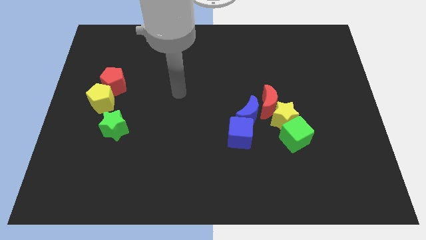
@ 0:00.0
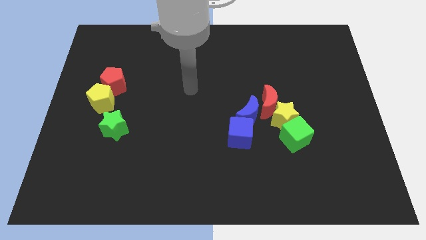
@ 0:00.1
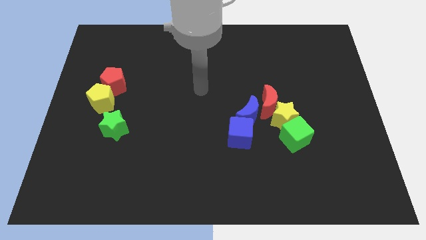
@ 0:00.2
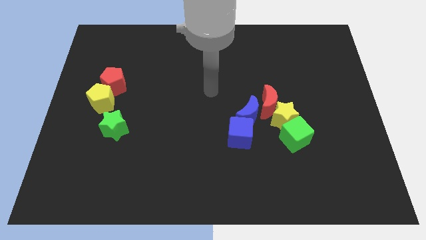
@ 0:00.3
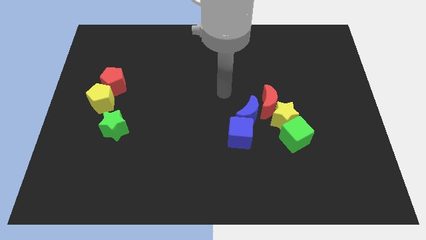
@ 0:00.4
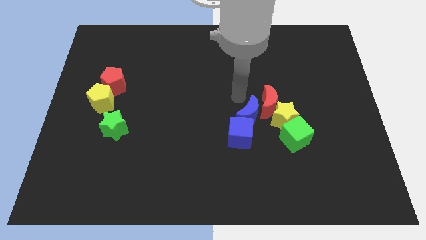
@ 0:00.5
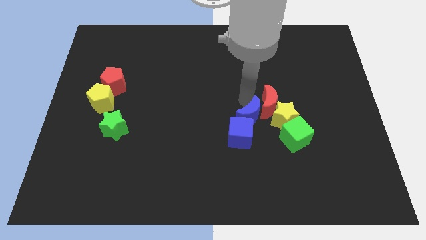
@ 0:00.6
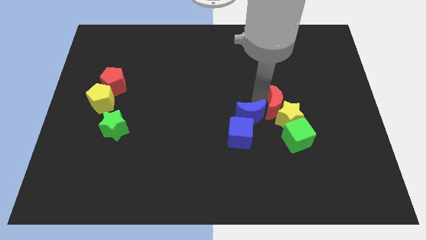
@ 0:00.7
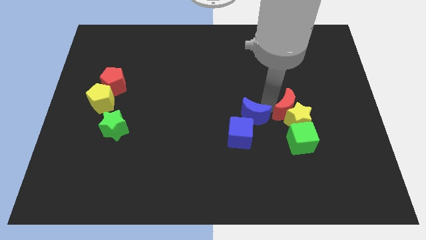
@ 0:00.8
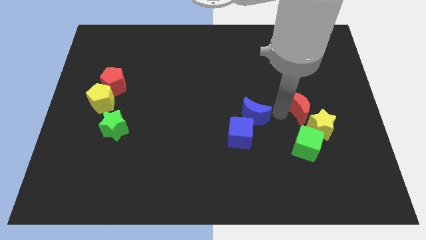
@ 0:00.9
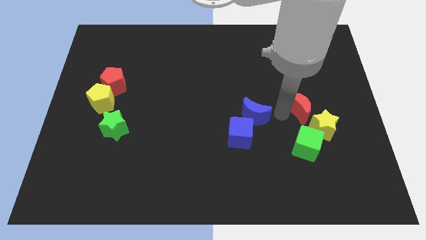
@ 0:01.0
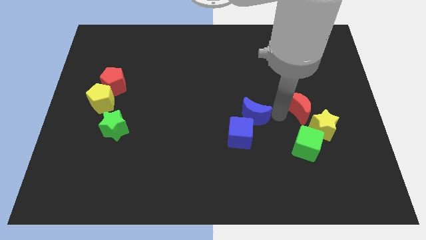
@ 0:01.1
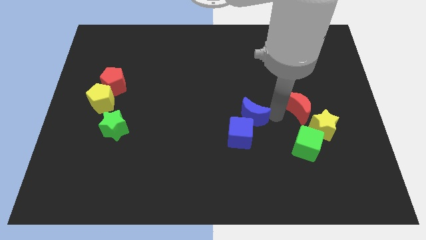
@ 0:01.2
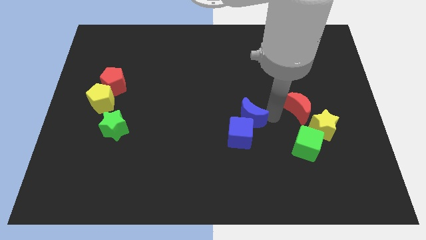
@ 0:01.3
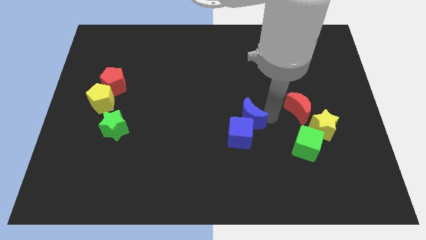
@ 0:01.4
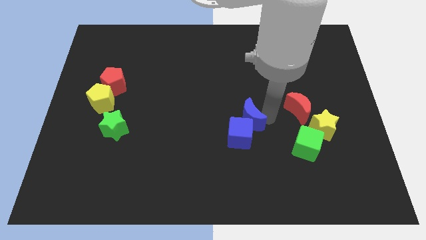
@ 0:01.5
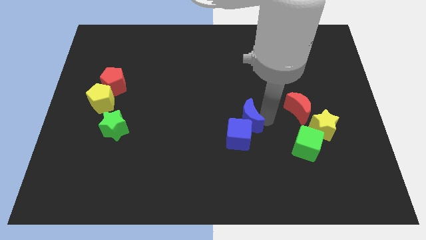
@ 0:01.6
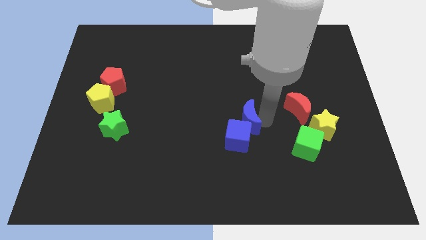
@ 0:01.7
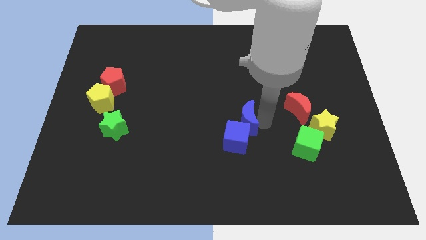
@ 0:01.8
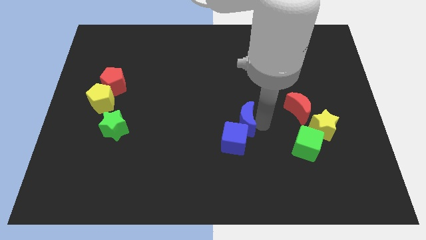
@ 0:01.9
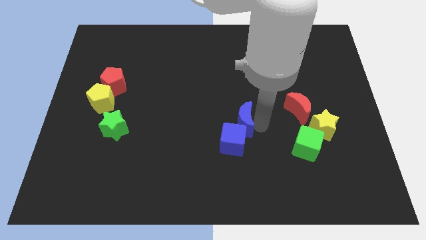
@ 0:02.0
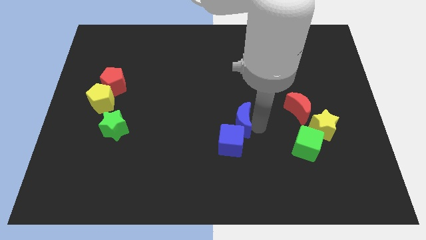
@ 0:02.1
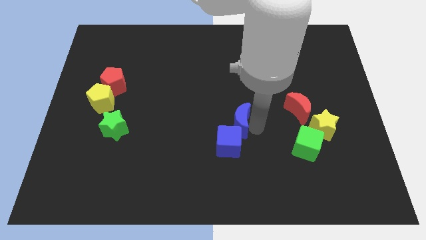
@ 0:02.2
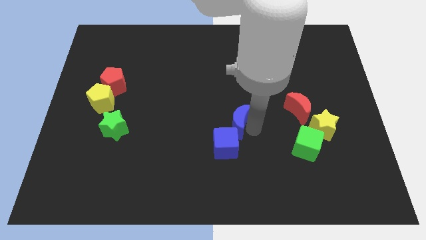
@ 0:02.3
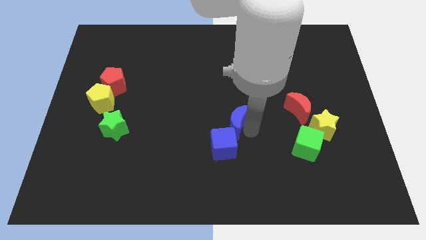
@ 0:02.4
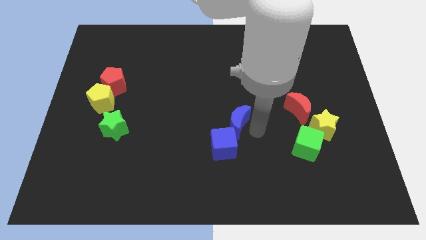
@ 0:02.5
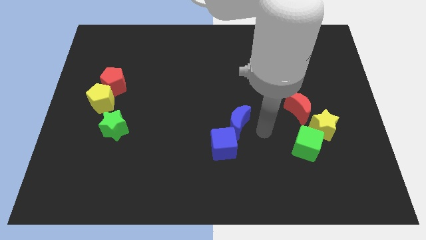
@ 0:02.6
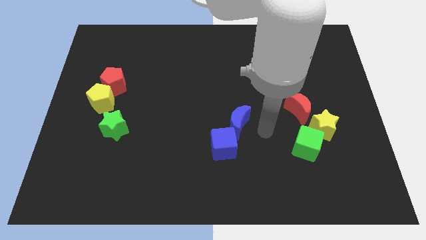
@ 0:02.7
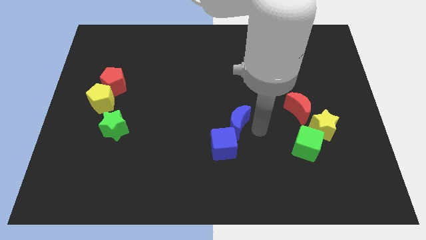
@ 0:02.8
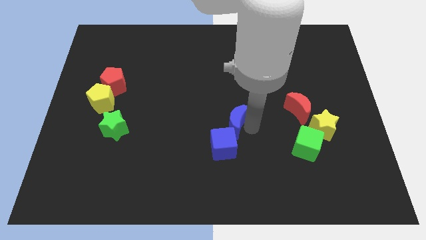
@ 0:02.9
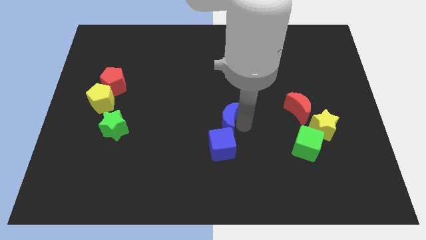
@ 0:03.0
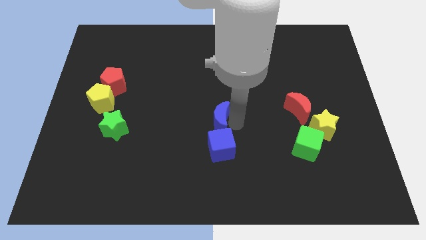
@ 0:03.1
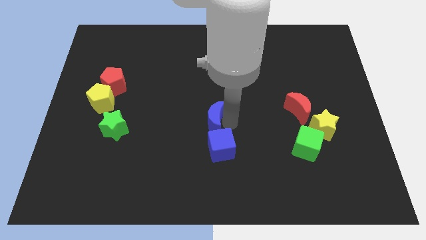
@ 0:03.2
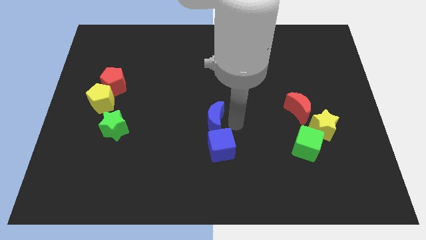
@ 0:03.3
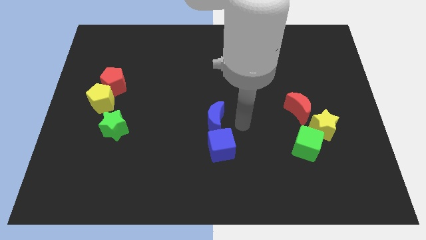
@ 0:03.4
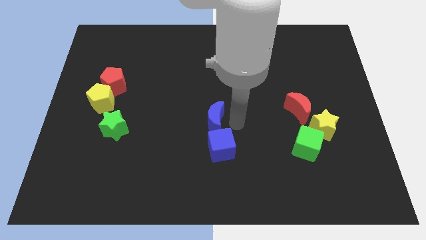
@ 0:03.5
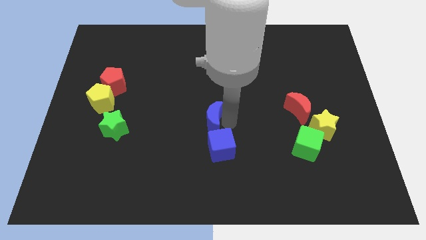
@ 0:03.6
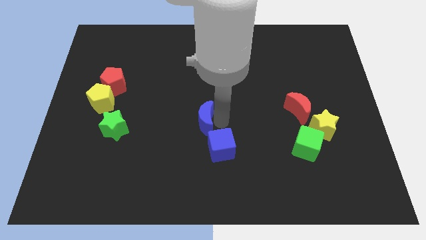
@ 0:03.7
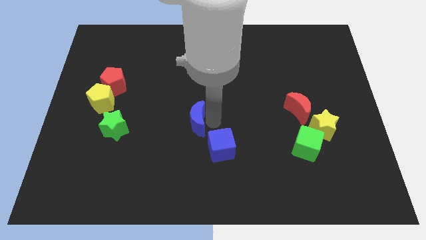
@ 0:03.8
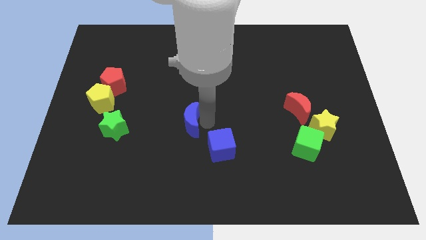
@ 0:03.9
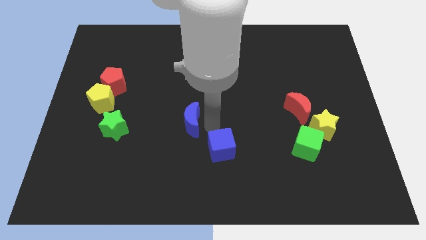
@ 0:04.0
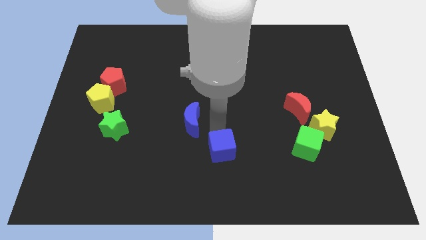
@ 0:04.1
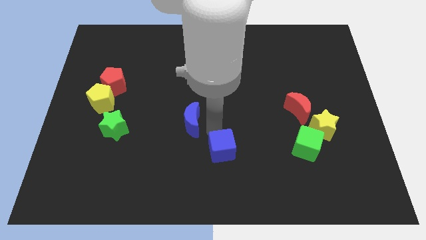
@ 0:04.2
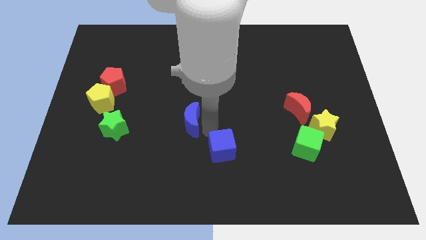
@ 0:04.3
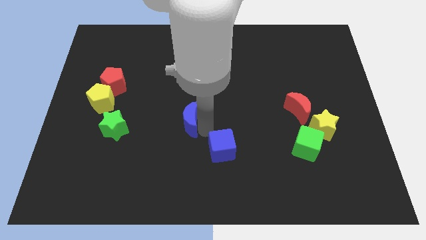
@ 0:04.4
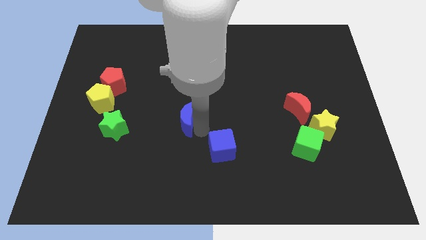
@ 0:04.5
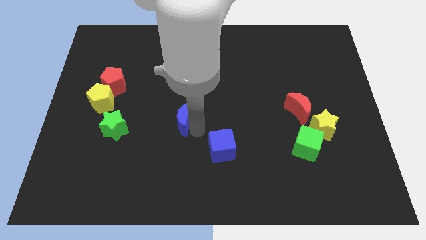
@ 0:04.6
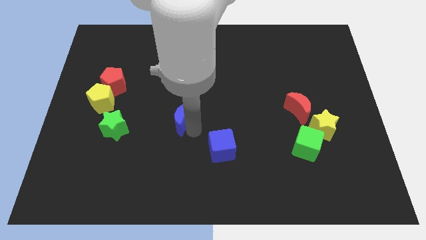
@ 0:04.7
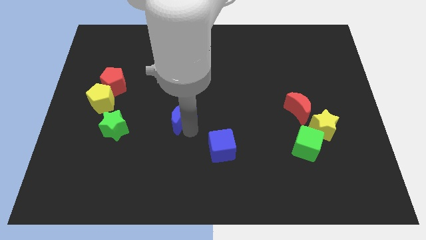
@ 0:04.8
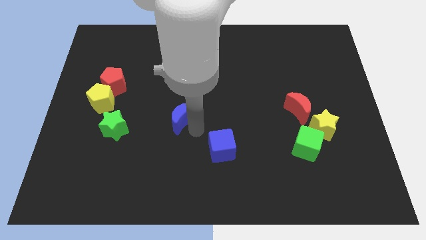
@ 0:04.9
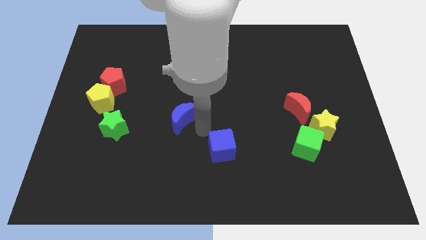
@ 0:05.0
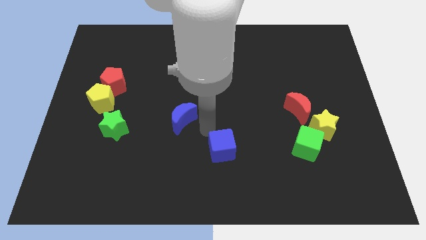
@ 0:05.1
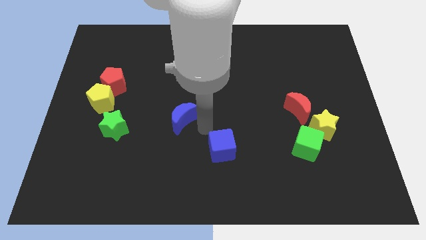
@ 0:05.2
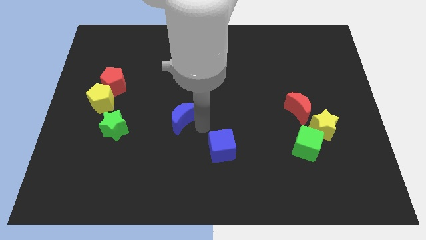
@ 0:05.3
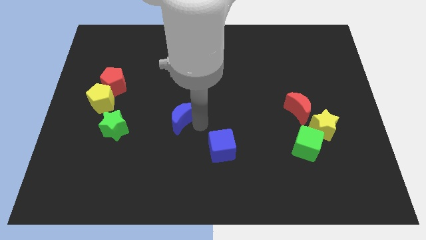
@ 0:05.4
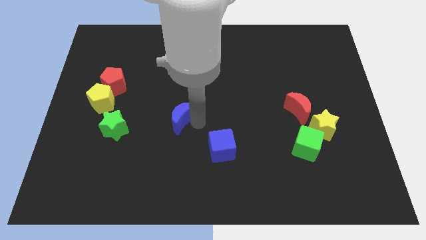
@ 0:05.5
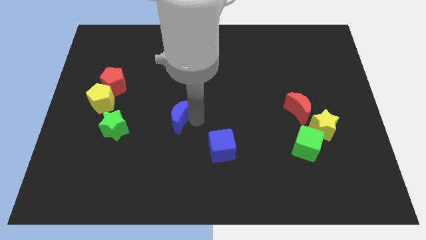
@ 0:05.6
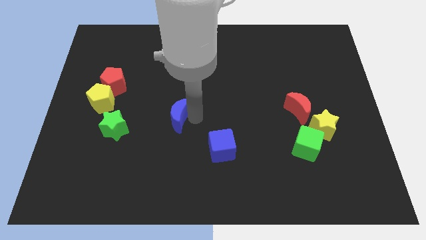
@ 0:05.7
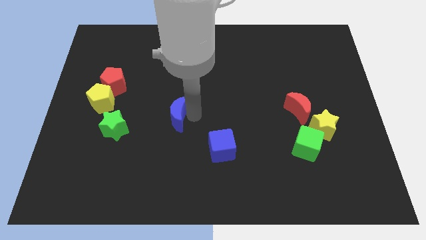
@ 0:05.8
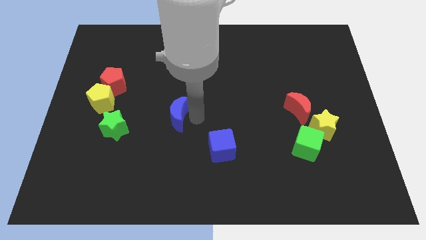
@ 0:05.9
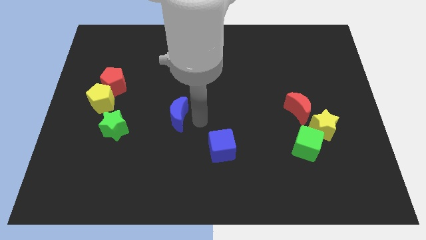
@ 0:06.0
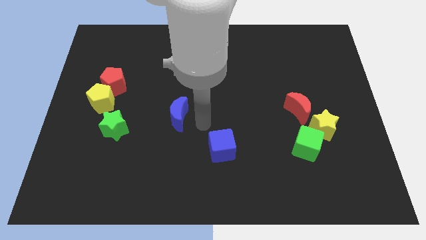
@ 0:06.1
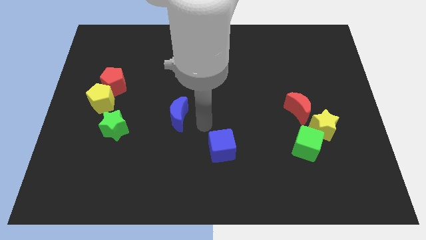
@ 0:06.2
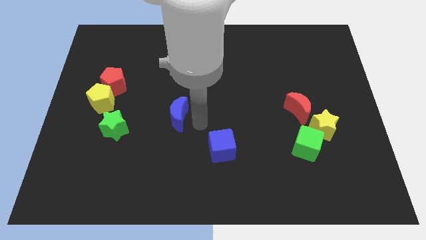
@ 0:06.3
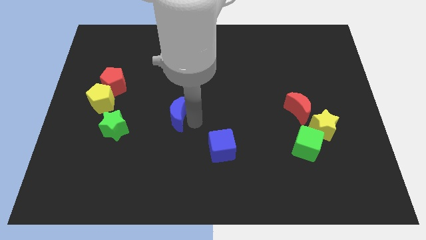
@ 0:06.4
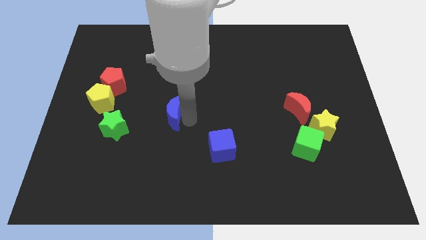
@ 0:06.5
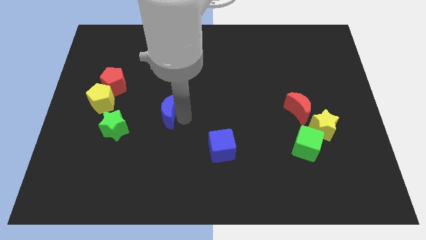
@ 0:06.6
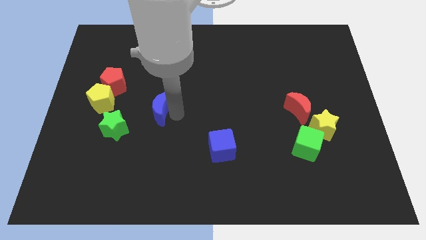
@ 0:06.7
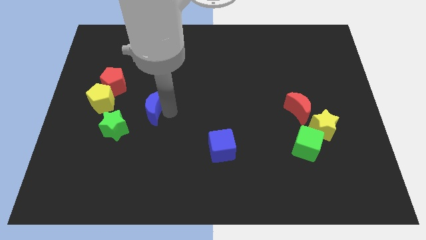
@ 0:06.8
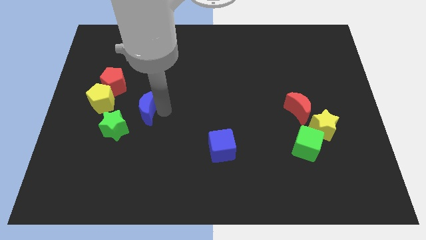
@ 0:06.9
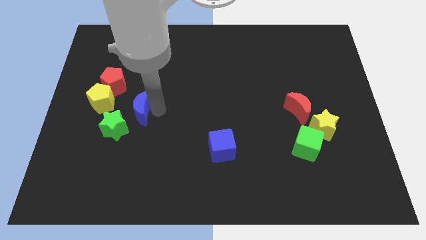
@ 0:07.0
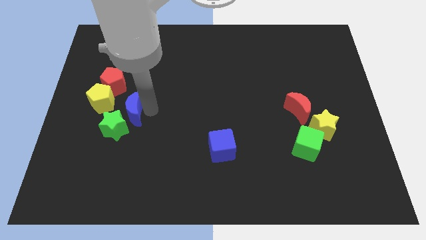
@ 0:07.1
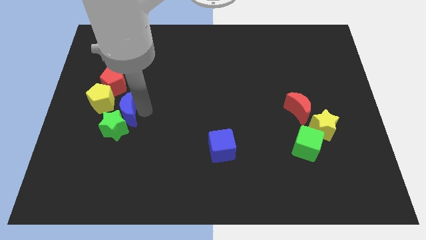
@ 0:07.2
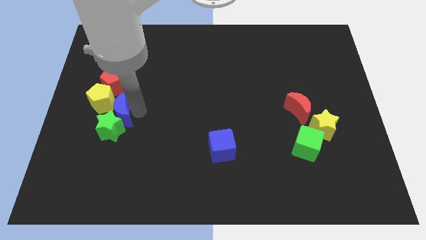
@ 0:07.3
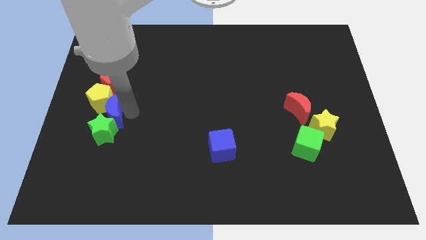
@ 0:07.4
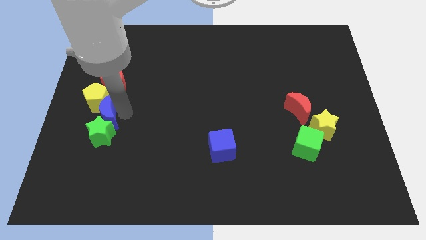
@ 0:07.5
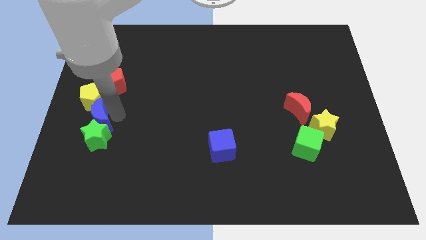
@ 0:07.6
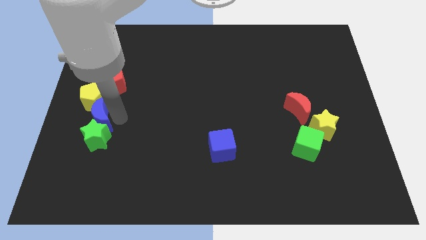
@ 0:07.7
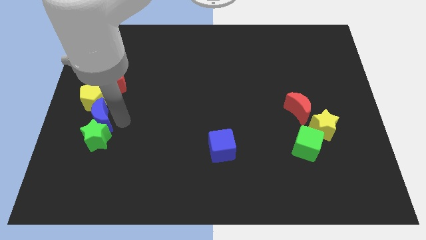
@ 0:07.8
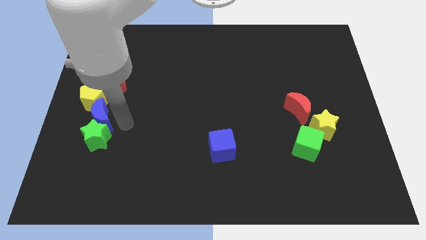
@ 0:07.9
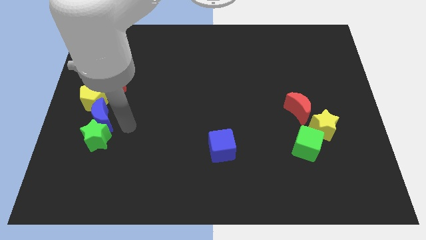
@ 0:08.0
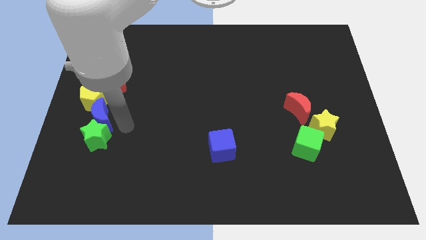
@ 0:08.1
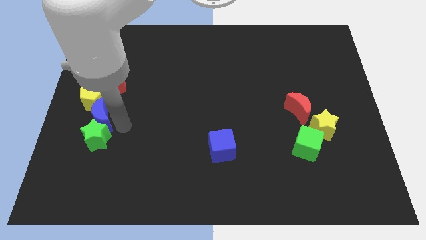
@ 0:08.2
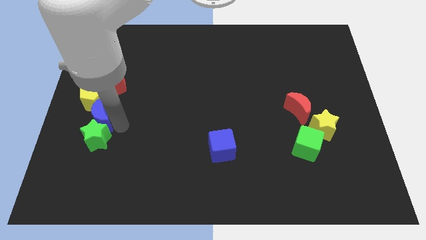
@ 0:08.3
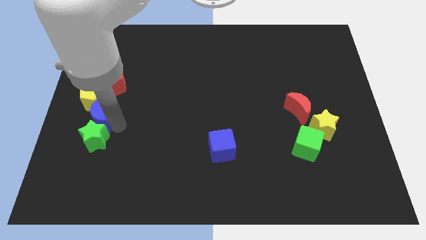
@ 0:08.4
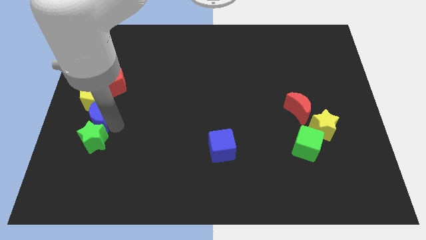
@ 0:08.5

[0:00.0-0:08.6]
push the blue moon to the left side
